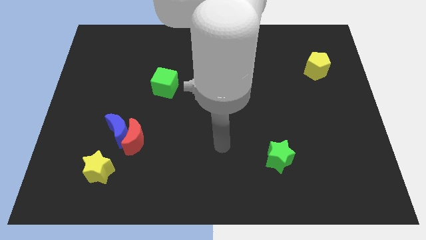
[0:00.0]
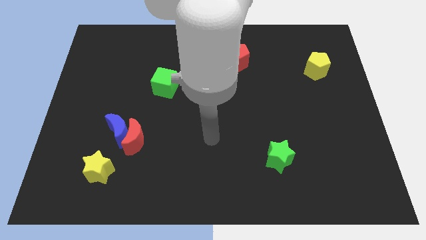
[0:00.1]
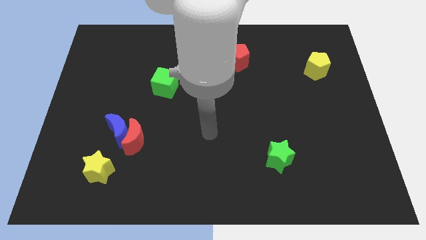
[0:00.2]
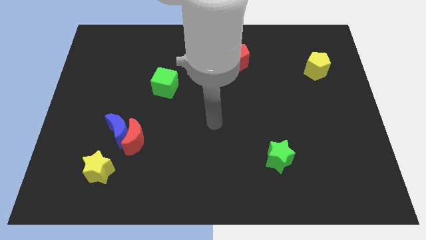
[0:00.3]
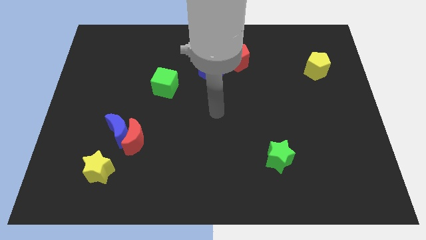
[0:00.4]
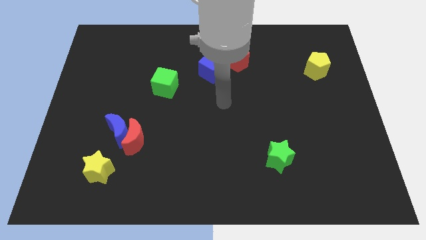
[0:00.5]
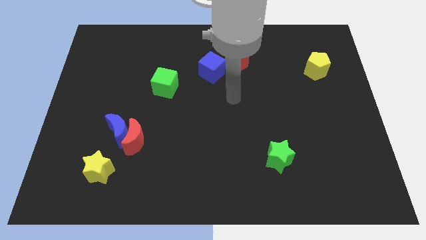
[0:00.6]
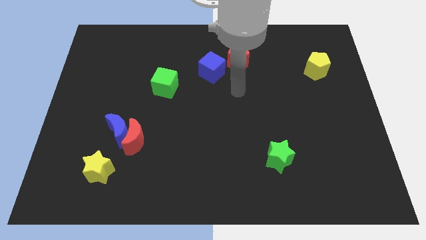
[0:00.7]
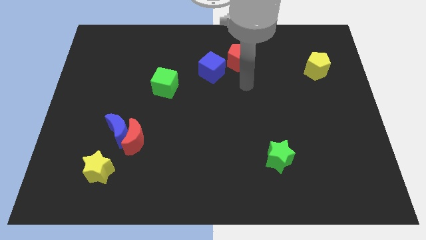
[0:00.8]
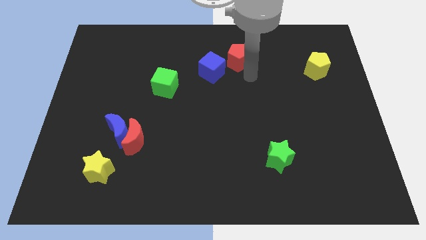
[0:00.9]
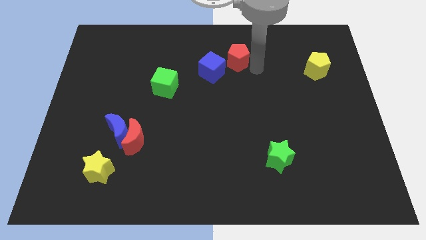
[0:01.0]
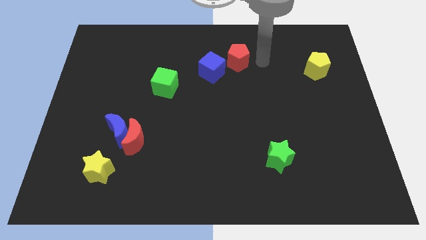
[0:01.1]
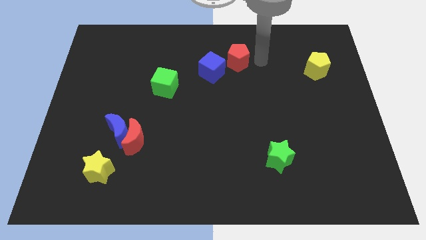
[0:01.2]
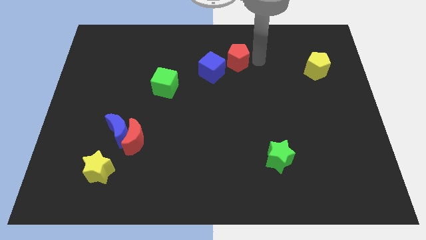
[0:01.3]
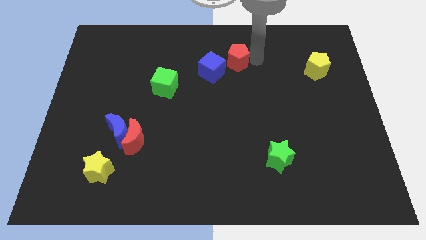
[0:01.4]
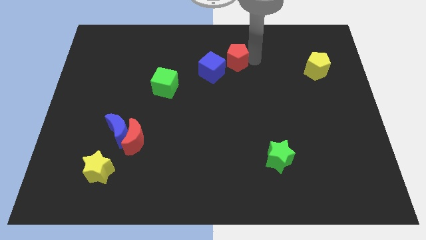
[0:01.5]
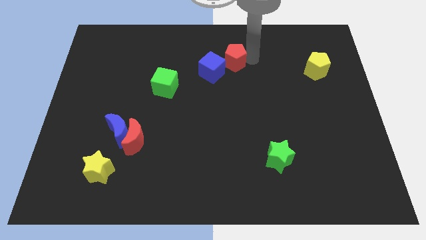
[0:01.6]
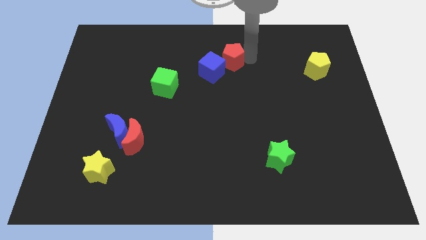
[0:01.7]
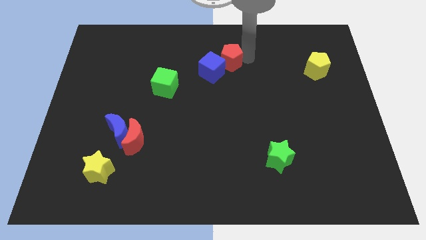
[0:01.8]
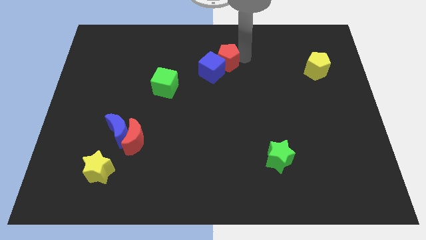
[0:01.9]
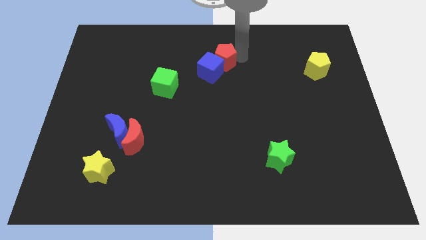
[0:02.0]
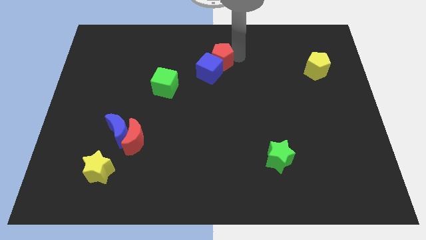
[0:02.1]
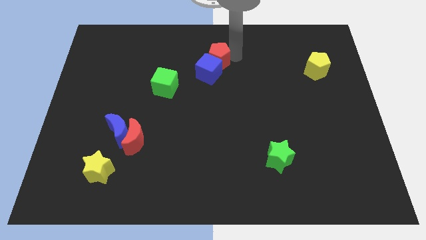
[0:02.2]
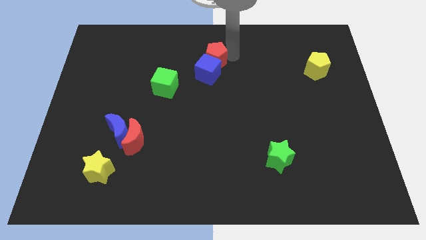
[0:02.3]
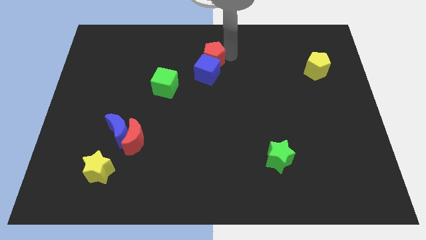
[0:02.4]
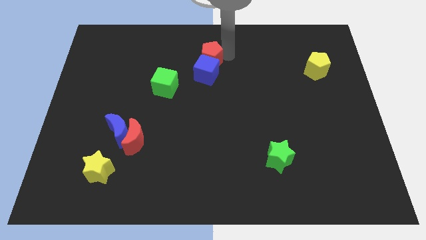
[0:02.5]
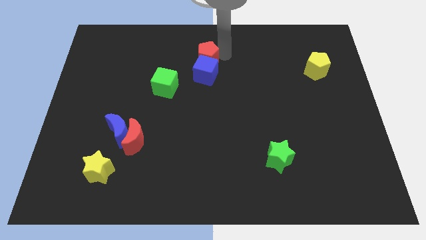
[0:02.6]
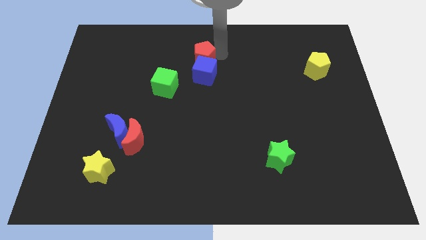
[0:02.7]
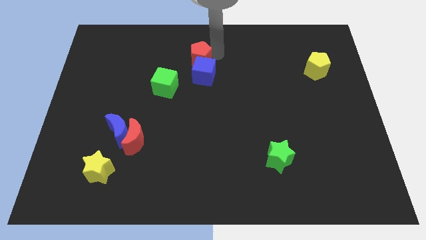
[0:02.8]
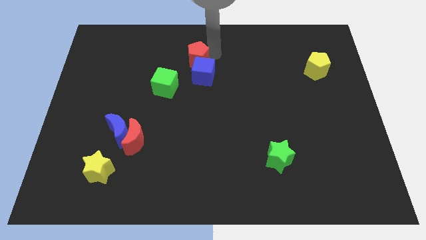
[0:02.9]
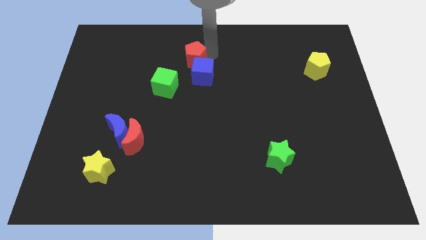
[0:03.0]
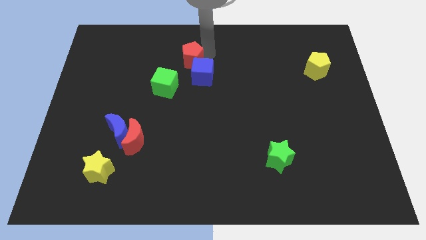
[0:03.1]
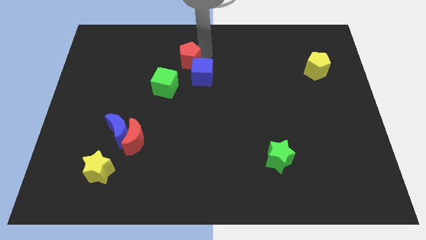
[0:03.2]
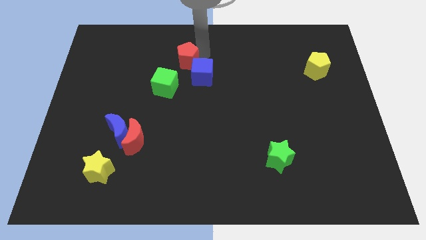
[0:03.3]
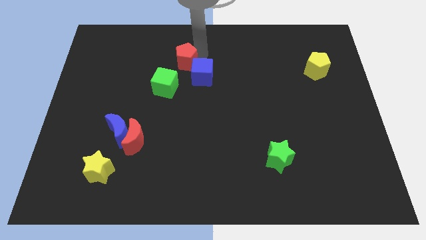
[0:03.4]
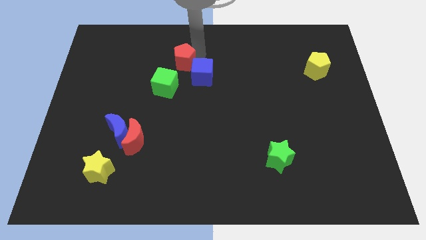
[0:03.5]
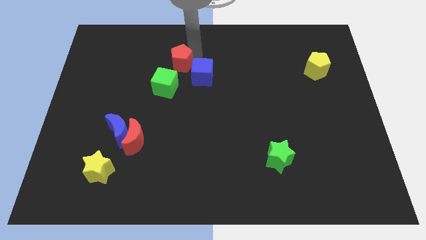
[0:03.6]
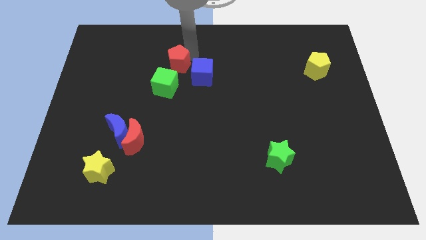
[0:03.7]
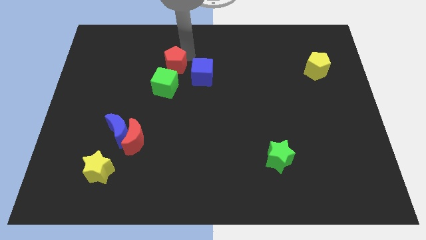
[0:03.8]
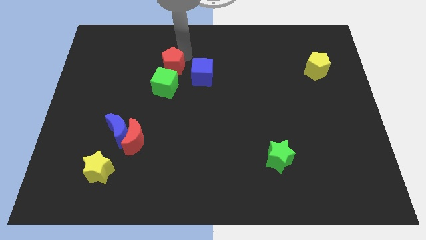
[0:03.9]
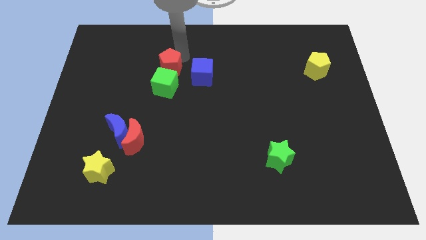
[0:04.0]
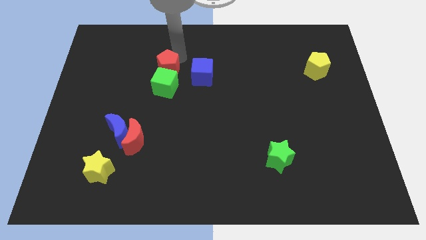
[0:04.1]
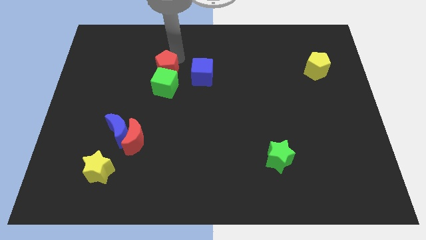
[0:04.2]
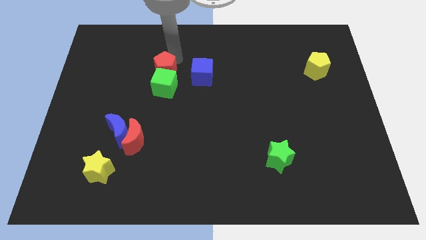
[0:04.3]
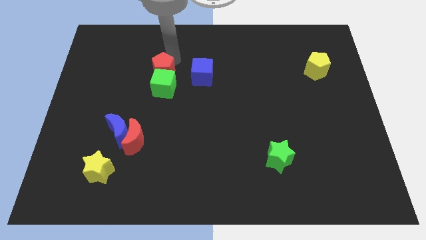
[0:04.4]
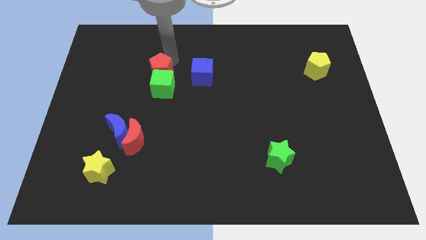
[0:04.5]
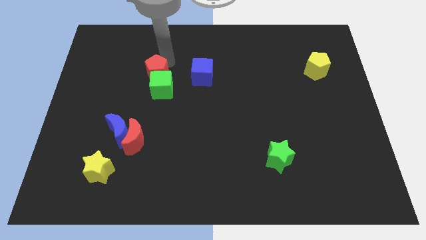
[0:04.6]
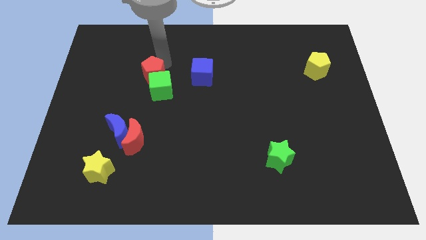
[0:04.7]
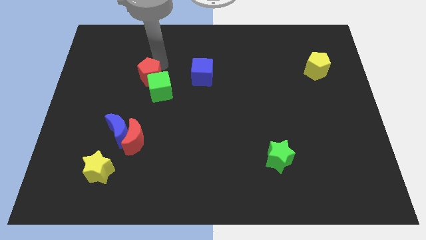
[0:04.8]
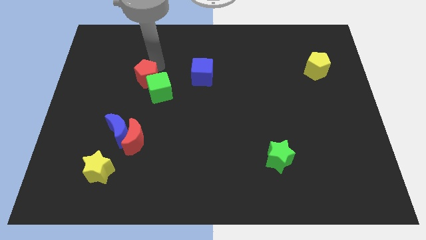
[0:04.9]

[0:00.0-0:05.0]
slide the red pentagon left of the green cube

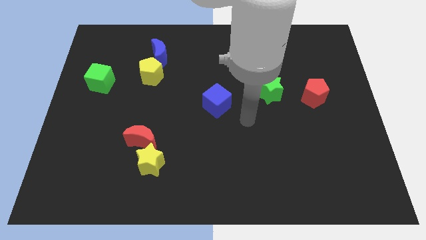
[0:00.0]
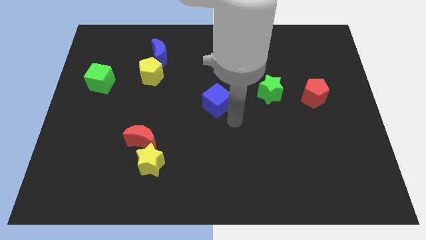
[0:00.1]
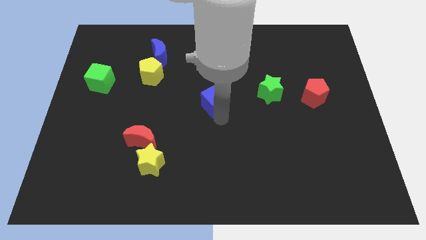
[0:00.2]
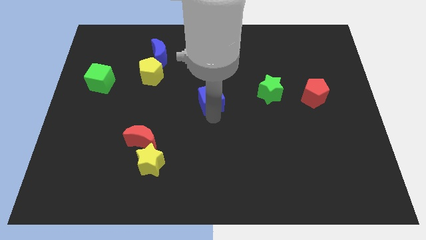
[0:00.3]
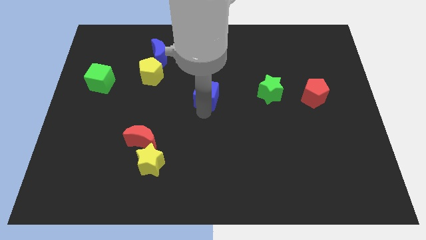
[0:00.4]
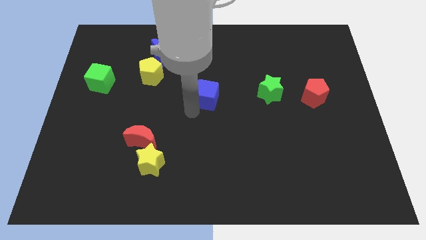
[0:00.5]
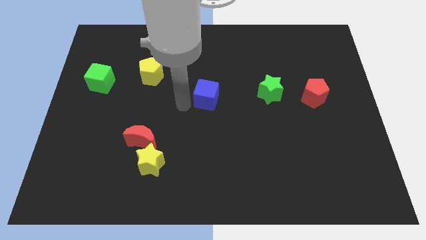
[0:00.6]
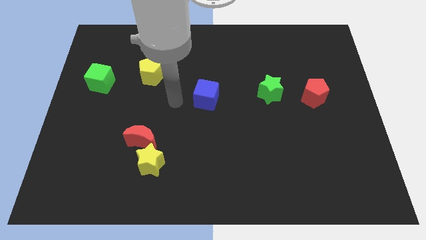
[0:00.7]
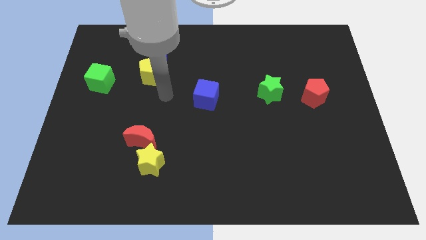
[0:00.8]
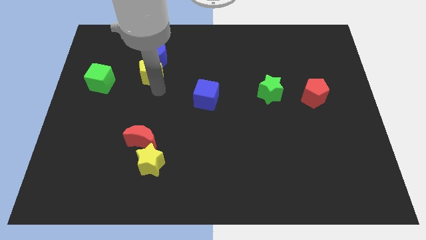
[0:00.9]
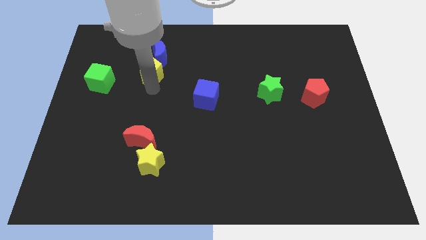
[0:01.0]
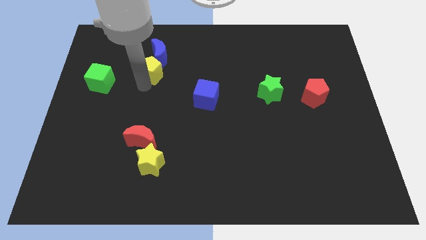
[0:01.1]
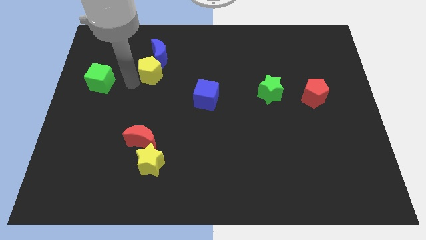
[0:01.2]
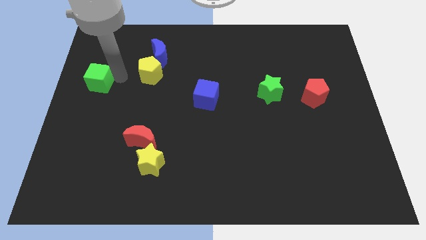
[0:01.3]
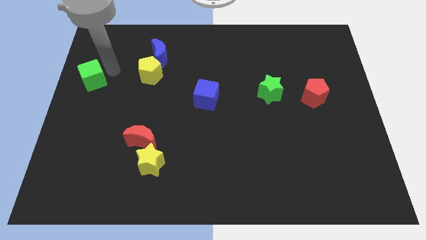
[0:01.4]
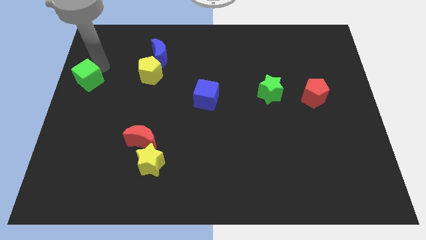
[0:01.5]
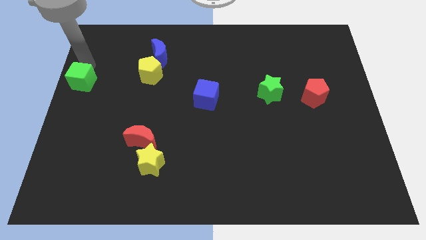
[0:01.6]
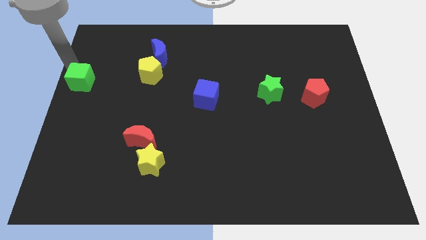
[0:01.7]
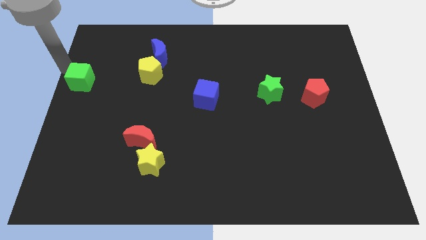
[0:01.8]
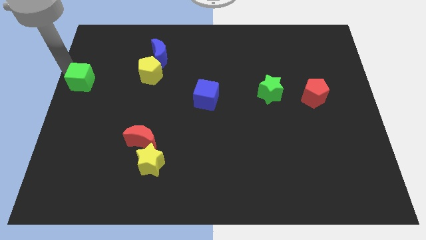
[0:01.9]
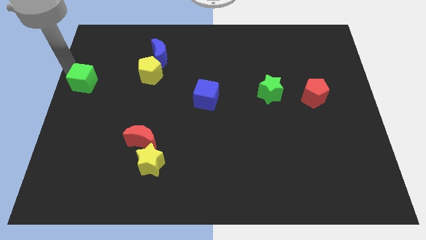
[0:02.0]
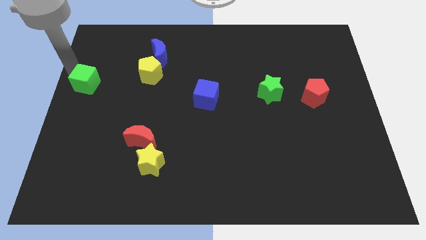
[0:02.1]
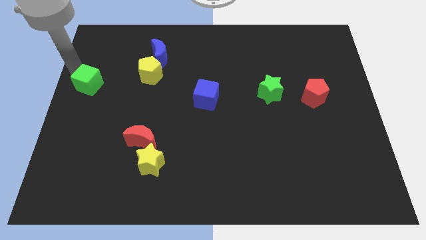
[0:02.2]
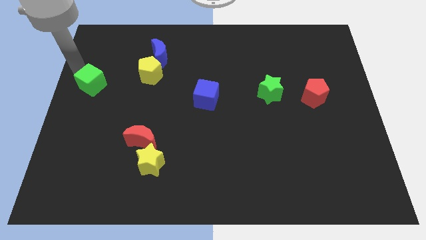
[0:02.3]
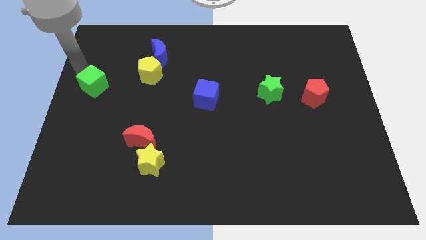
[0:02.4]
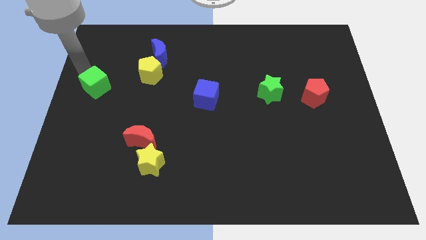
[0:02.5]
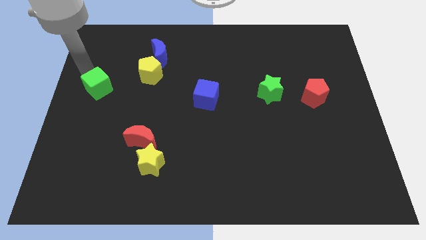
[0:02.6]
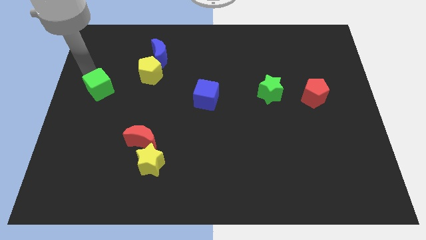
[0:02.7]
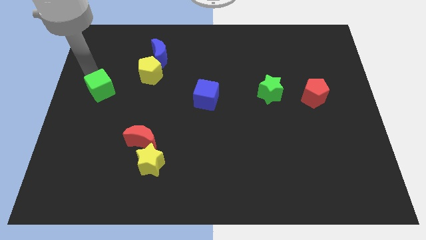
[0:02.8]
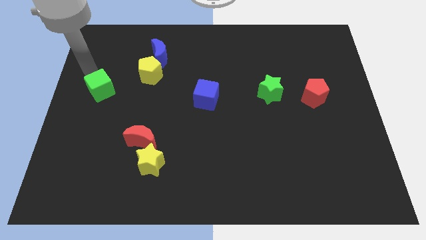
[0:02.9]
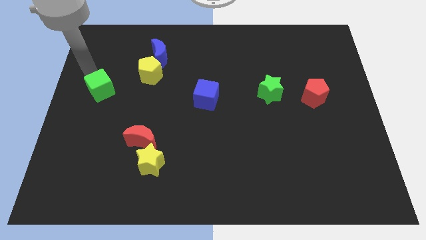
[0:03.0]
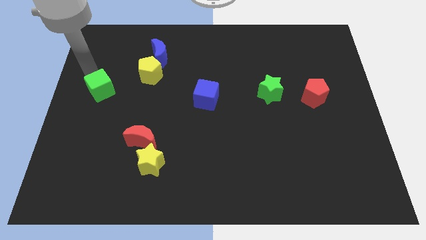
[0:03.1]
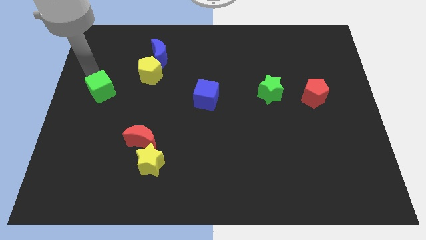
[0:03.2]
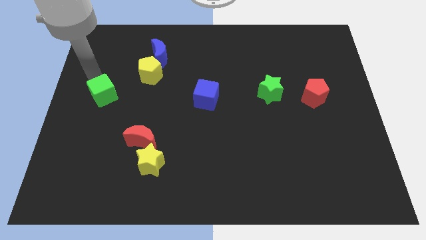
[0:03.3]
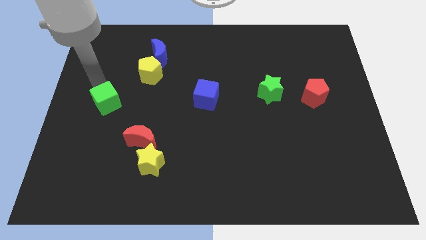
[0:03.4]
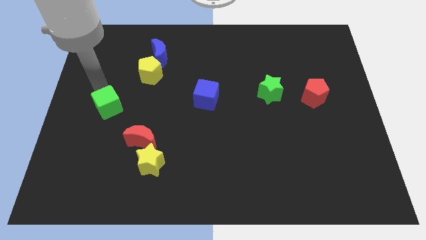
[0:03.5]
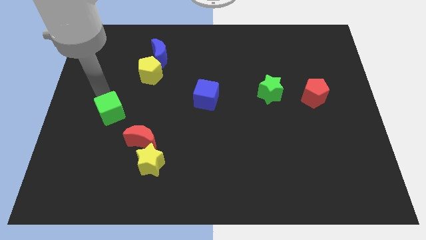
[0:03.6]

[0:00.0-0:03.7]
put the green cube to the top left of the red moon
